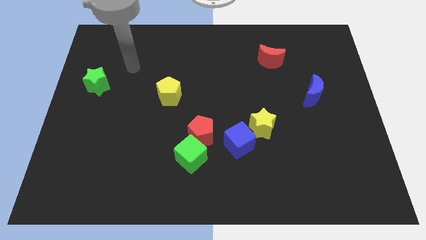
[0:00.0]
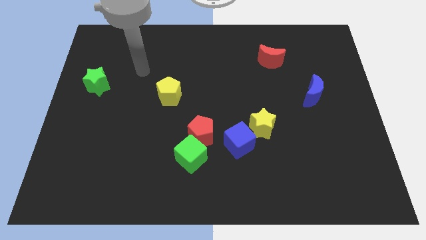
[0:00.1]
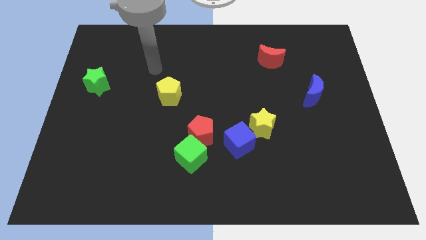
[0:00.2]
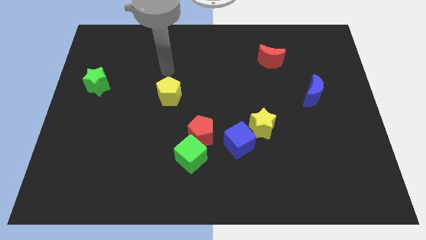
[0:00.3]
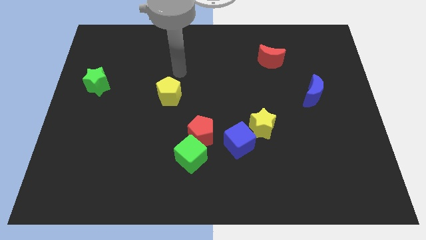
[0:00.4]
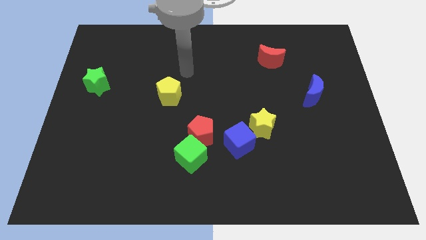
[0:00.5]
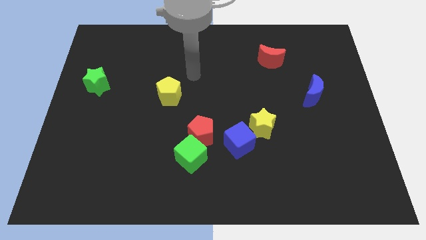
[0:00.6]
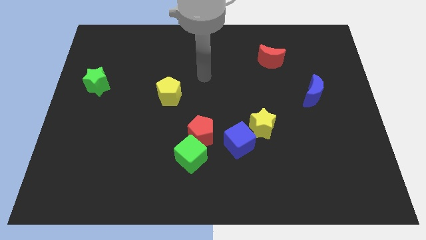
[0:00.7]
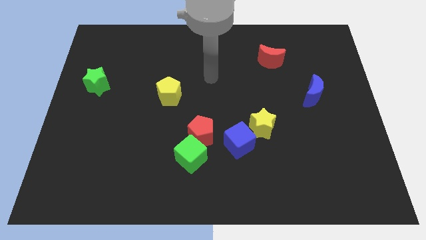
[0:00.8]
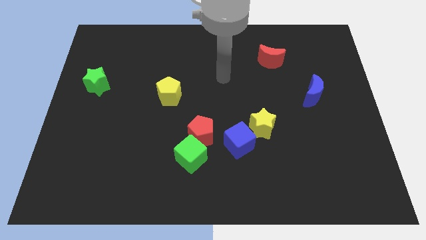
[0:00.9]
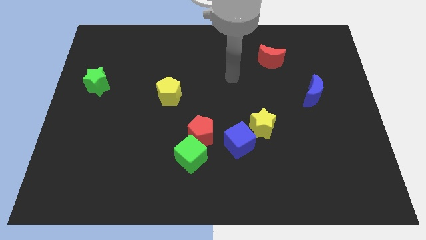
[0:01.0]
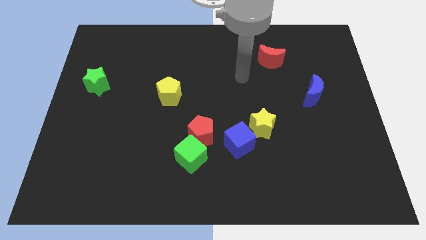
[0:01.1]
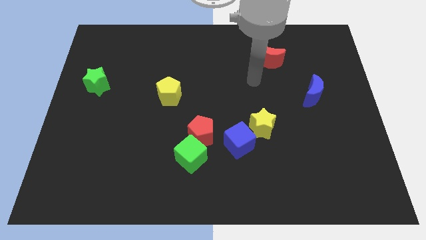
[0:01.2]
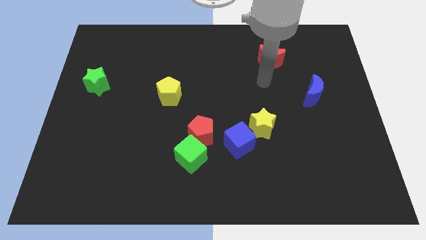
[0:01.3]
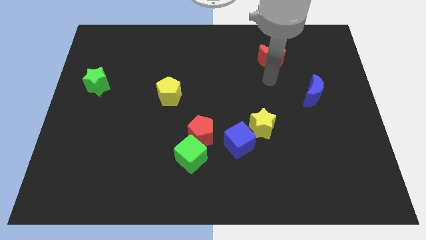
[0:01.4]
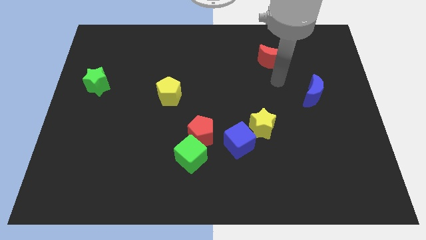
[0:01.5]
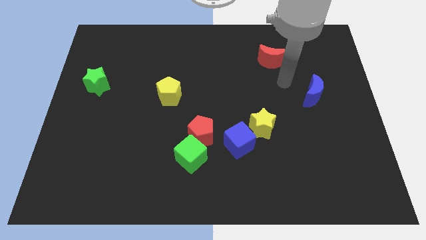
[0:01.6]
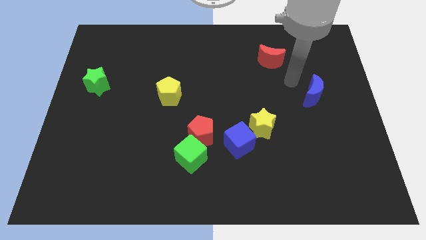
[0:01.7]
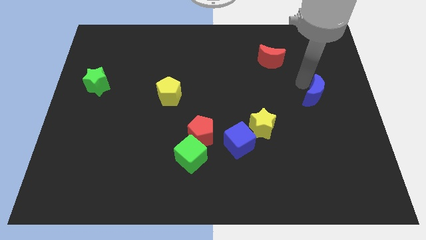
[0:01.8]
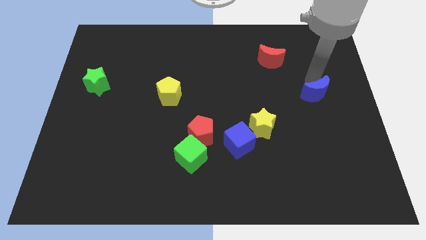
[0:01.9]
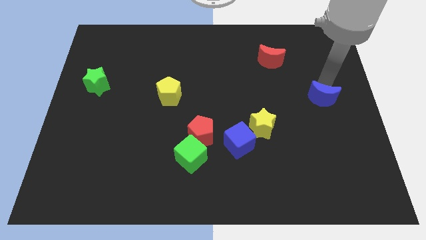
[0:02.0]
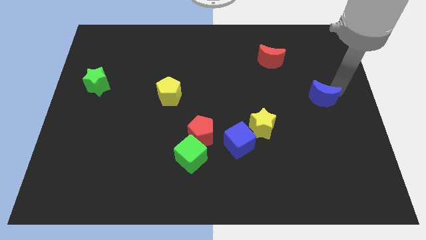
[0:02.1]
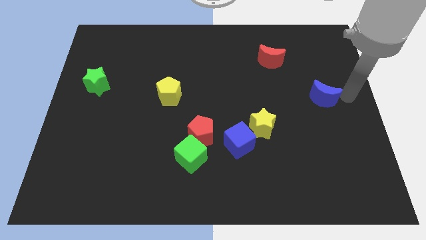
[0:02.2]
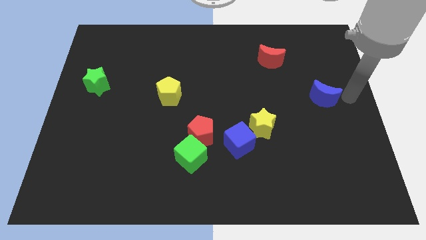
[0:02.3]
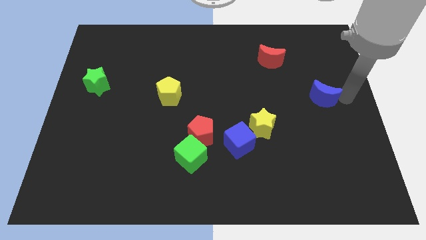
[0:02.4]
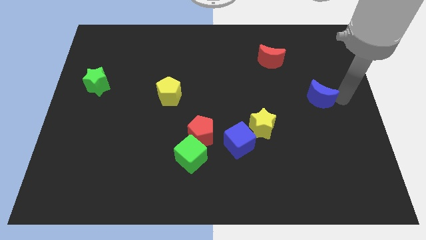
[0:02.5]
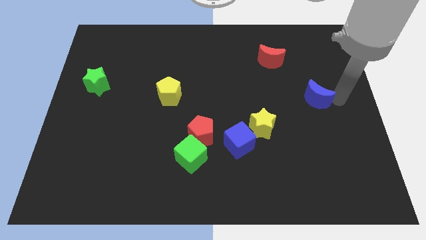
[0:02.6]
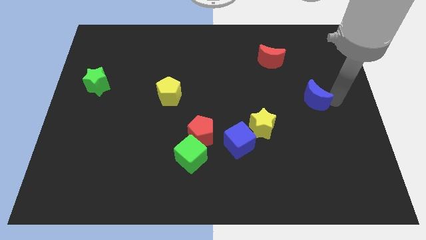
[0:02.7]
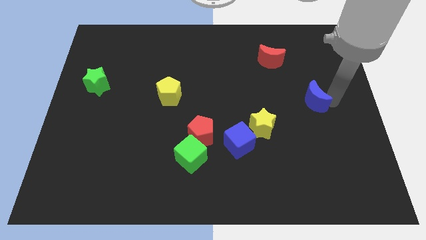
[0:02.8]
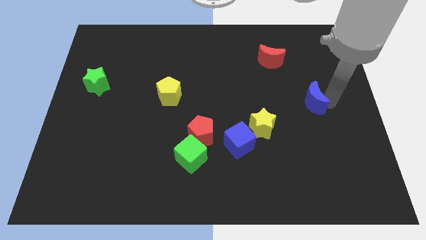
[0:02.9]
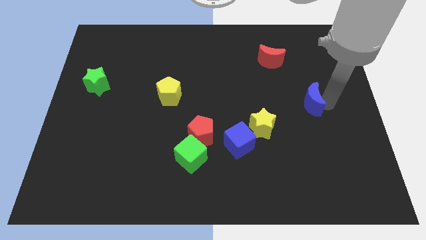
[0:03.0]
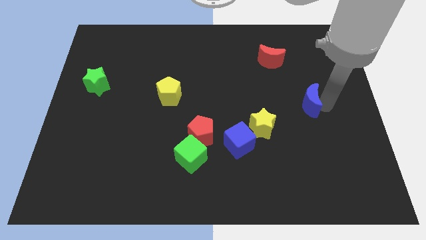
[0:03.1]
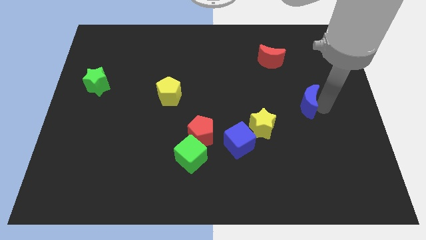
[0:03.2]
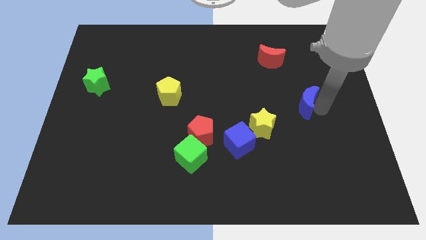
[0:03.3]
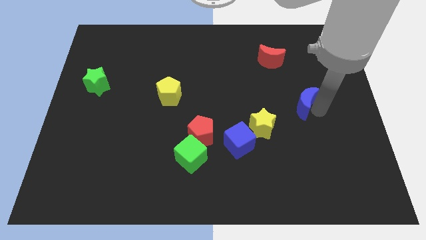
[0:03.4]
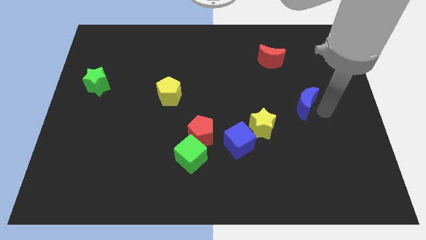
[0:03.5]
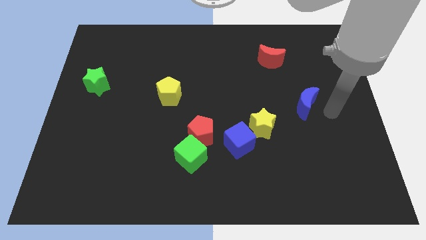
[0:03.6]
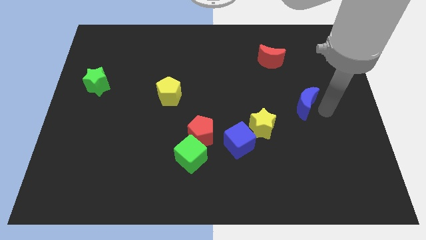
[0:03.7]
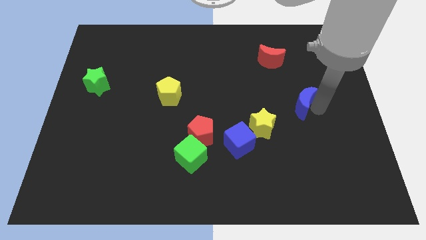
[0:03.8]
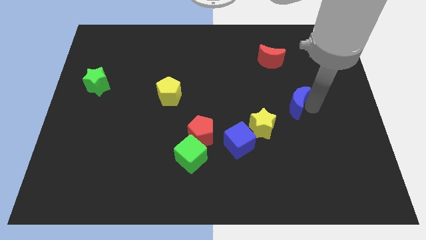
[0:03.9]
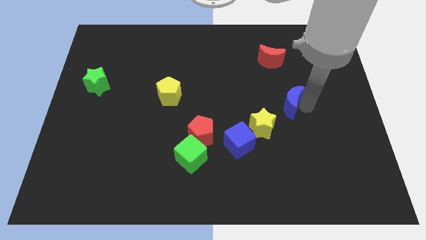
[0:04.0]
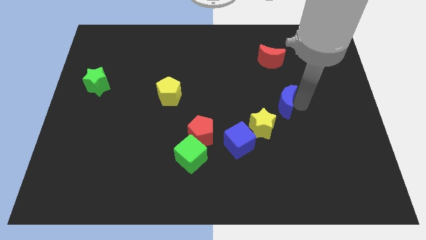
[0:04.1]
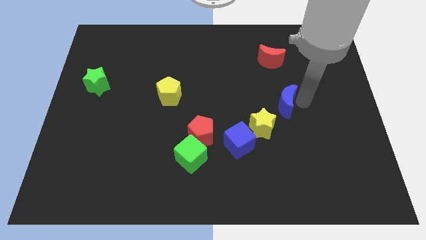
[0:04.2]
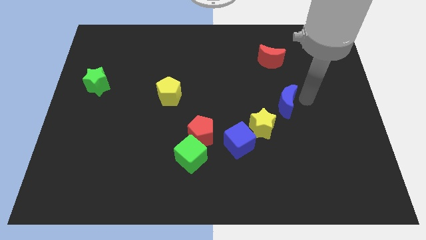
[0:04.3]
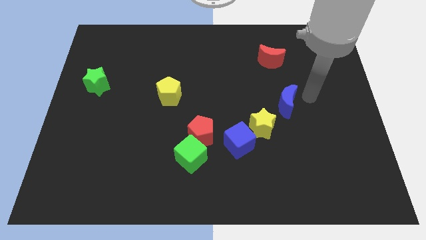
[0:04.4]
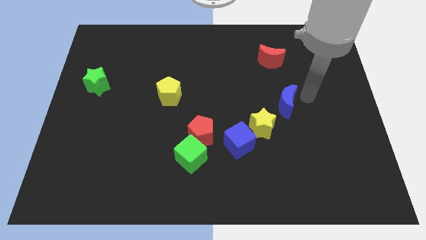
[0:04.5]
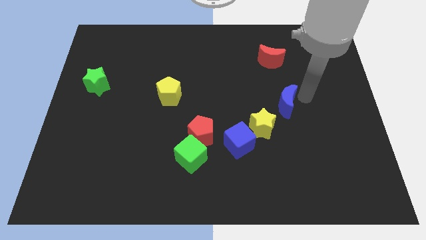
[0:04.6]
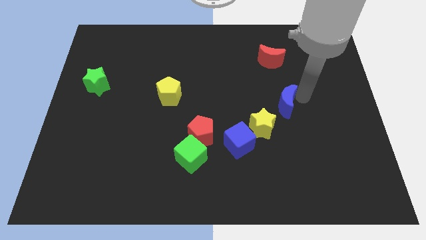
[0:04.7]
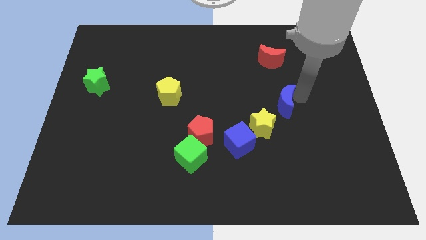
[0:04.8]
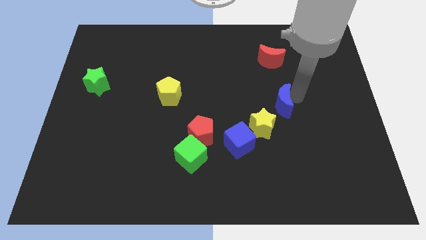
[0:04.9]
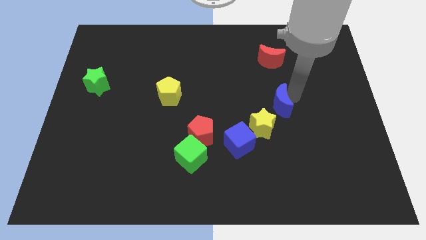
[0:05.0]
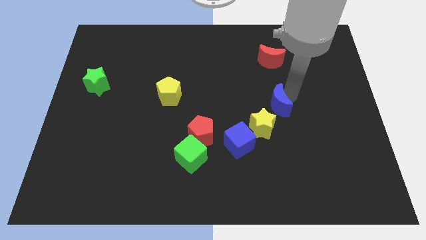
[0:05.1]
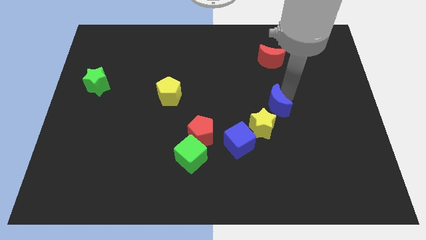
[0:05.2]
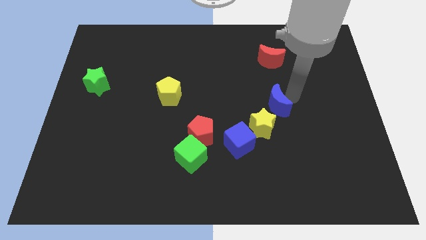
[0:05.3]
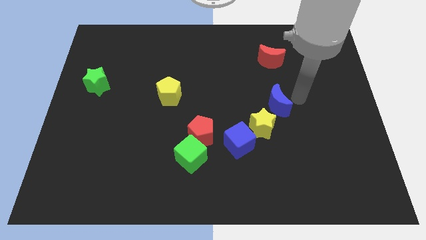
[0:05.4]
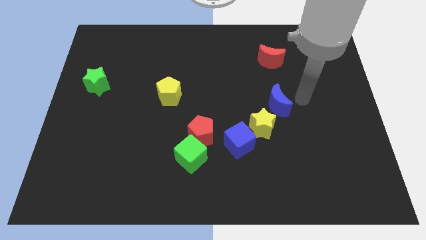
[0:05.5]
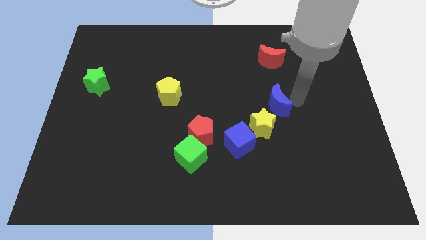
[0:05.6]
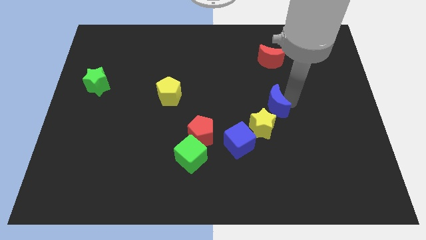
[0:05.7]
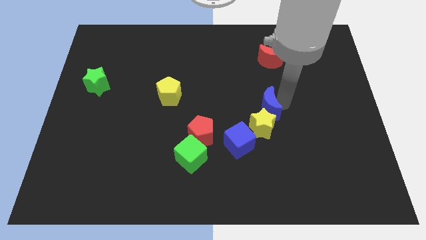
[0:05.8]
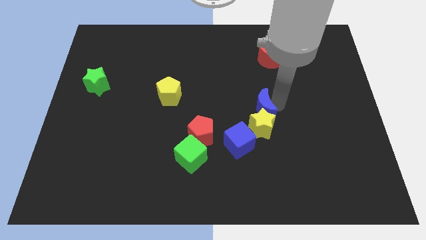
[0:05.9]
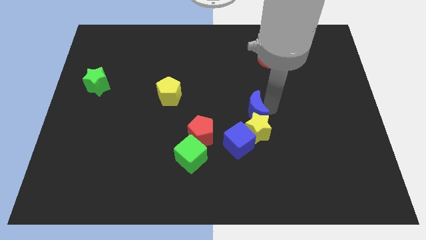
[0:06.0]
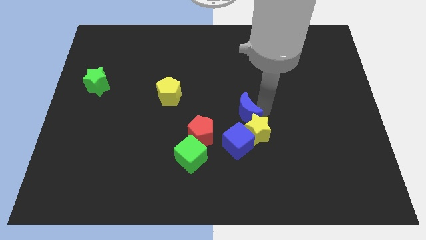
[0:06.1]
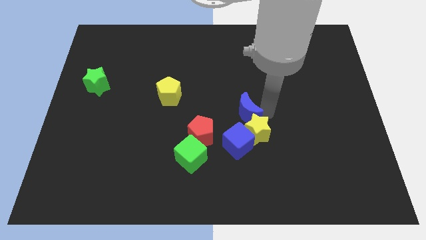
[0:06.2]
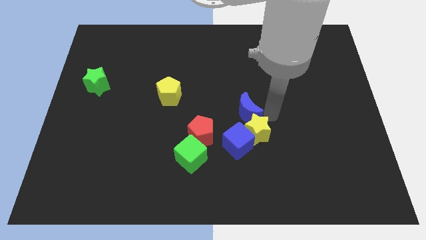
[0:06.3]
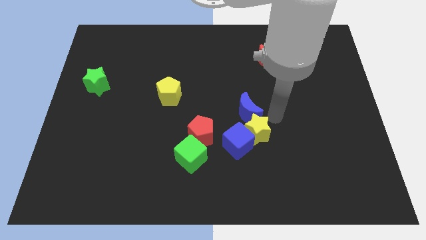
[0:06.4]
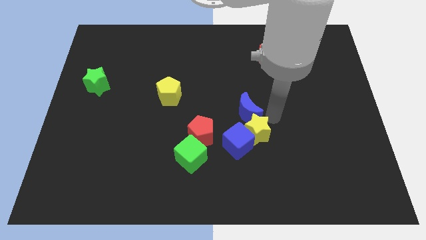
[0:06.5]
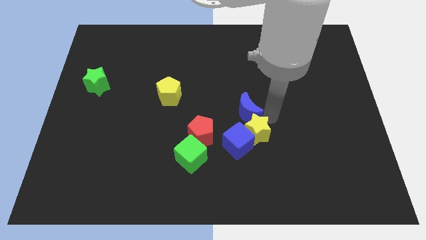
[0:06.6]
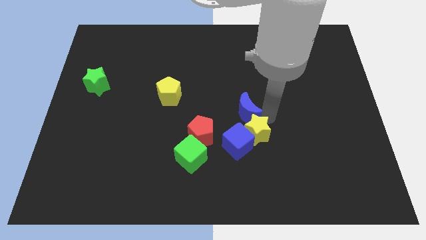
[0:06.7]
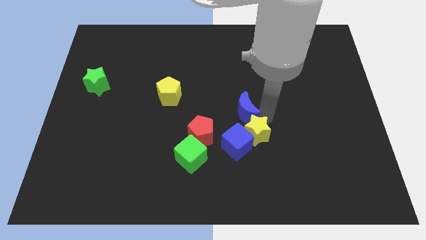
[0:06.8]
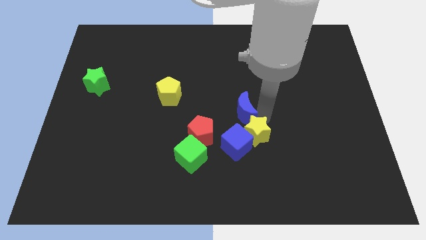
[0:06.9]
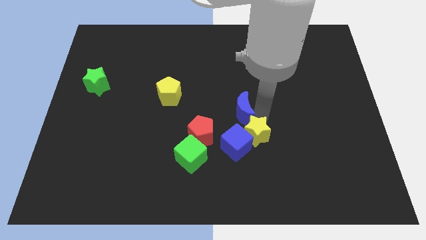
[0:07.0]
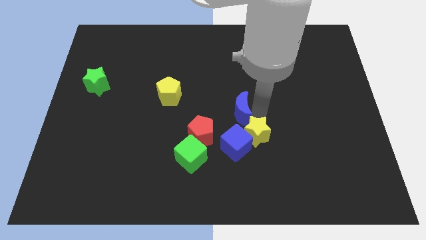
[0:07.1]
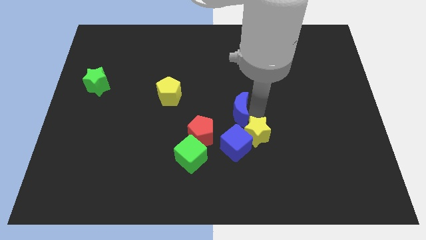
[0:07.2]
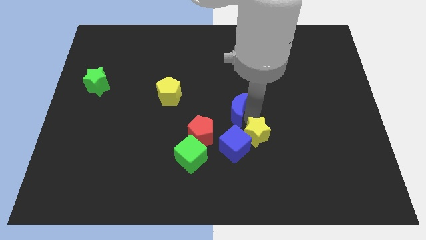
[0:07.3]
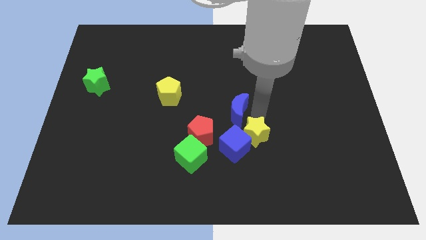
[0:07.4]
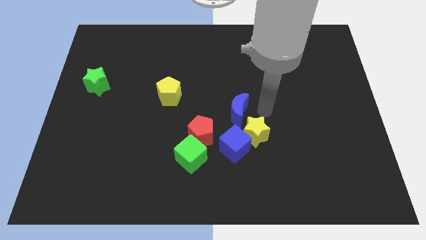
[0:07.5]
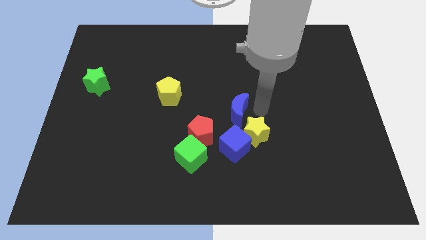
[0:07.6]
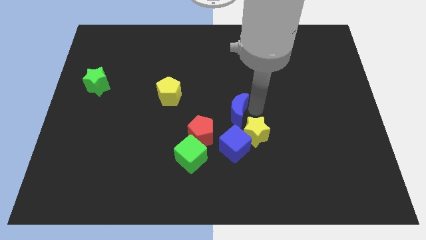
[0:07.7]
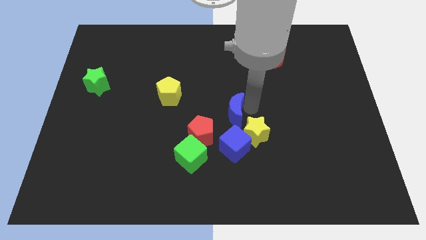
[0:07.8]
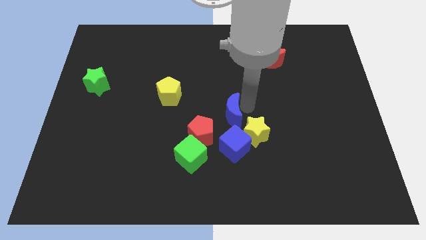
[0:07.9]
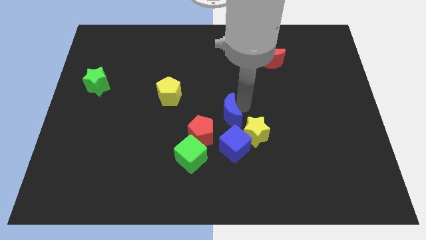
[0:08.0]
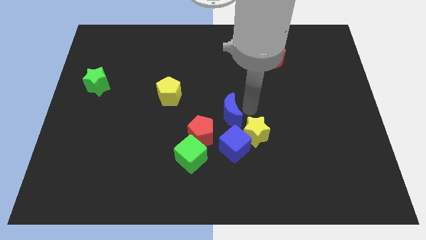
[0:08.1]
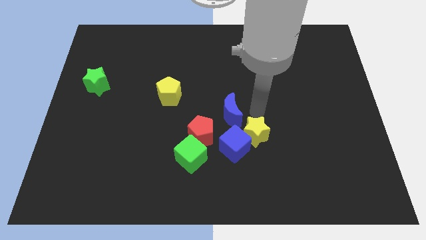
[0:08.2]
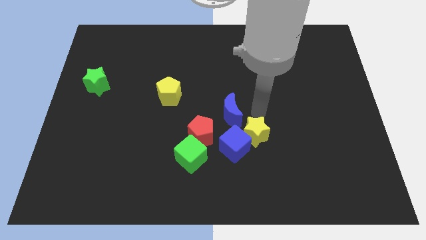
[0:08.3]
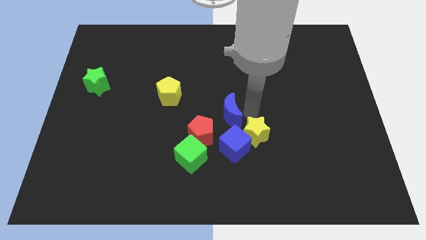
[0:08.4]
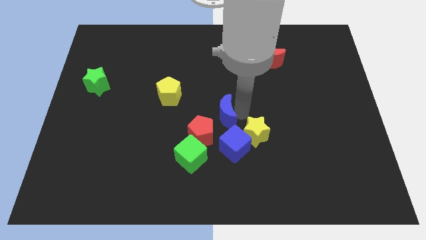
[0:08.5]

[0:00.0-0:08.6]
put the blue moon diagonally up and to the left of the blue cube
